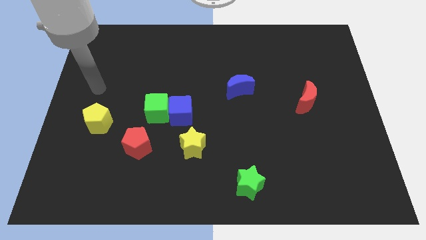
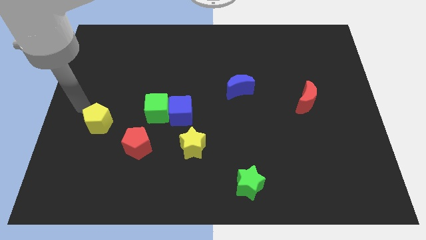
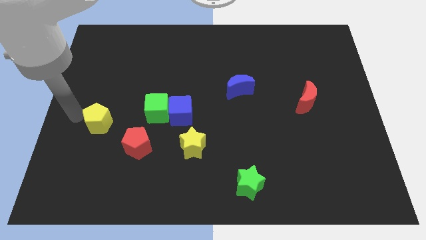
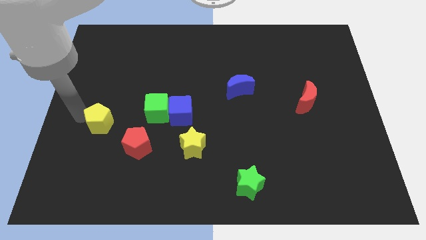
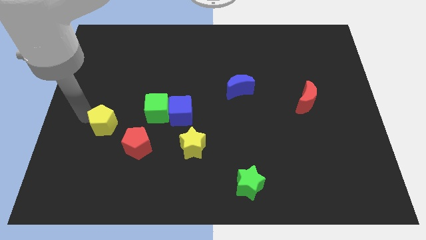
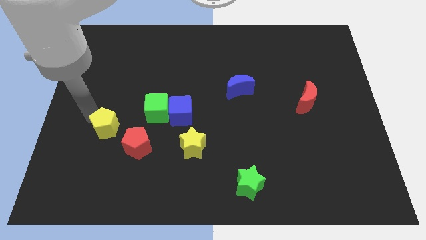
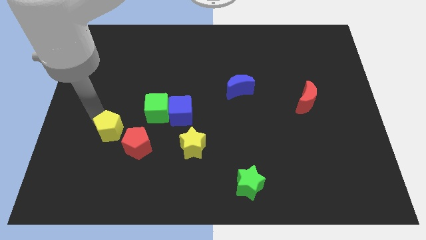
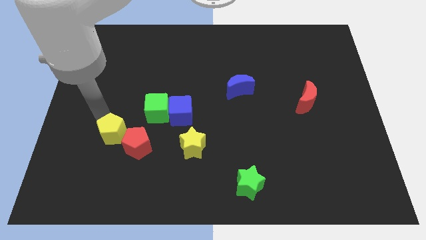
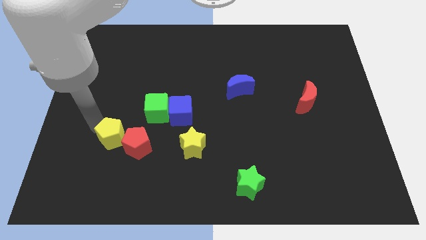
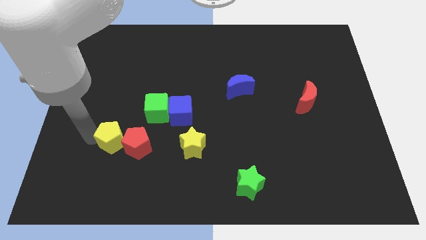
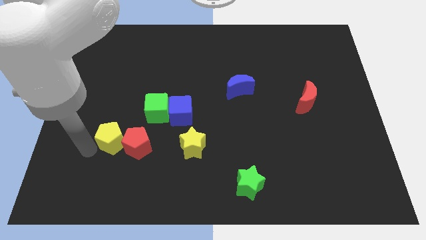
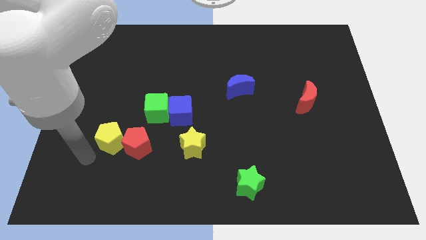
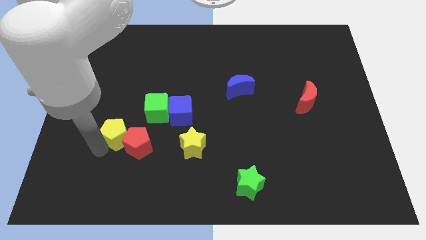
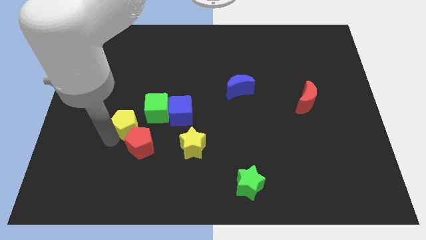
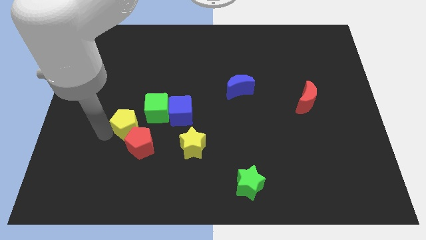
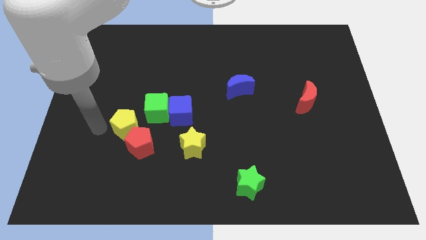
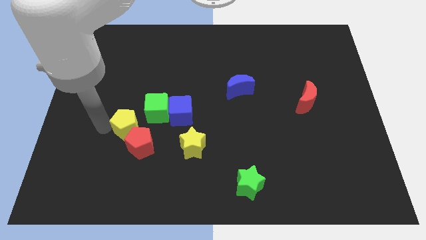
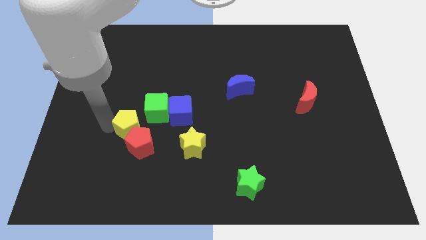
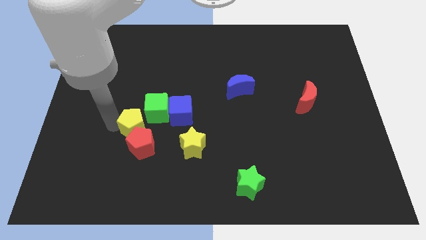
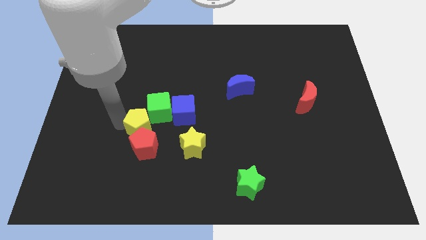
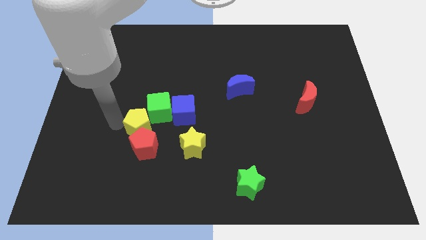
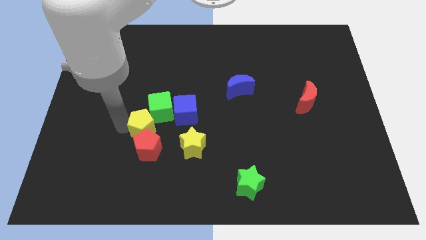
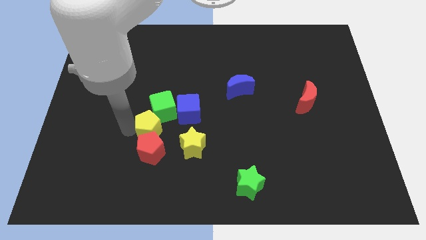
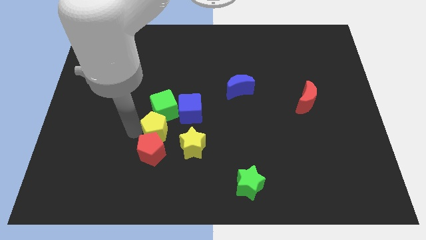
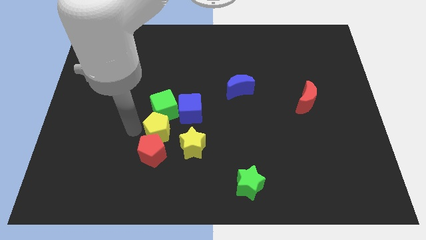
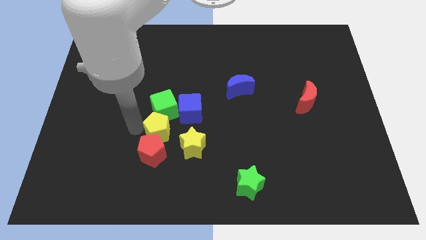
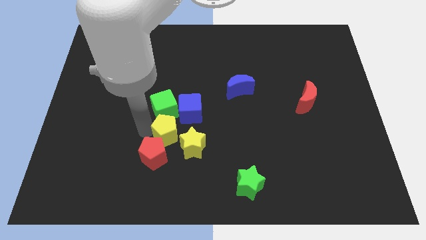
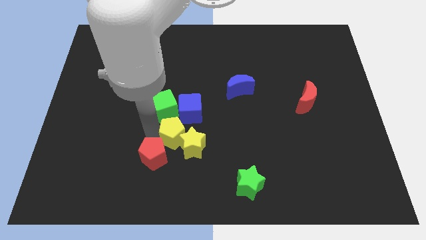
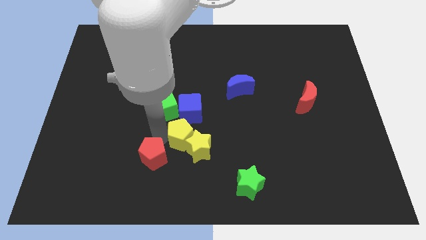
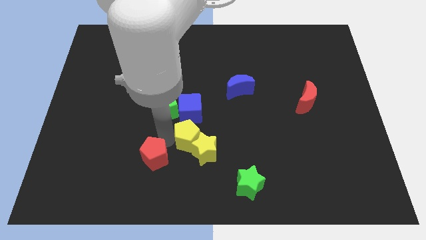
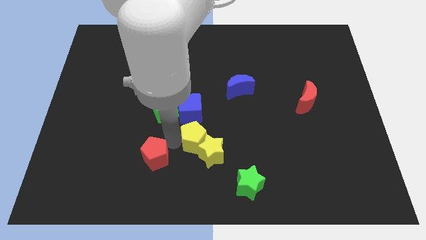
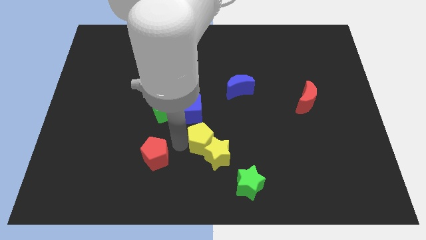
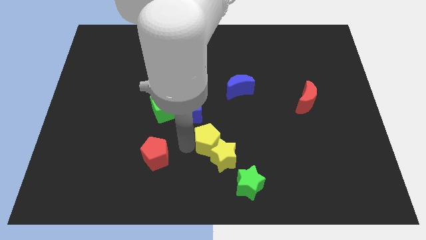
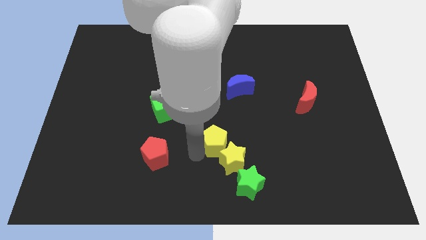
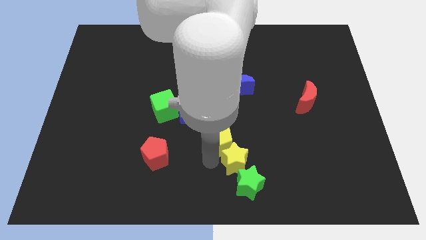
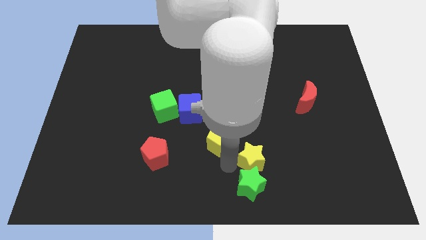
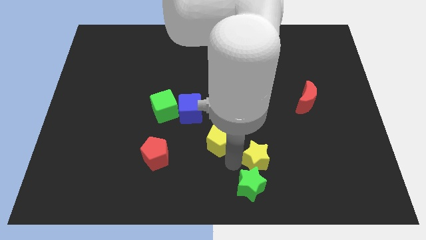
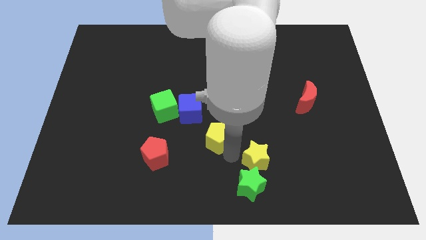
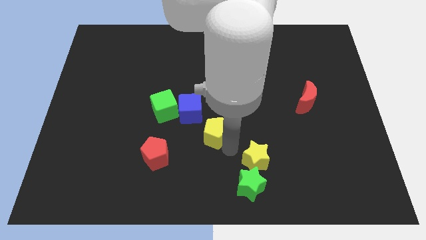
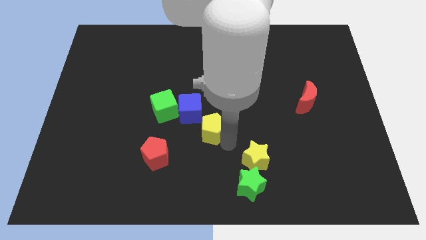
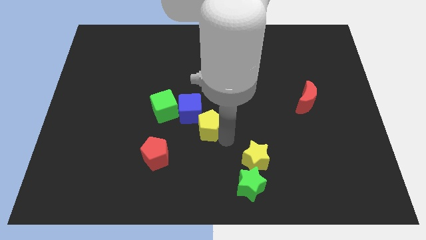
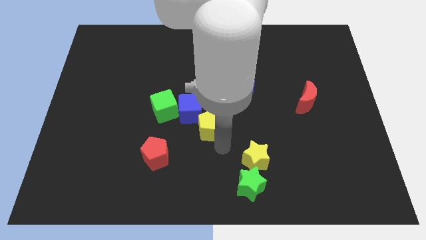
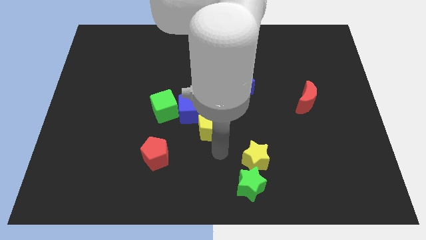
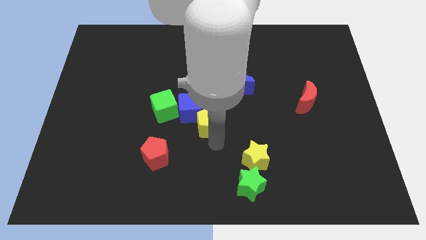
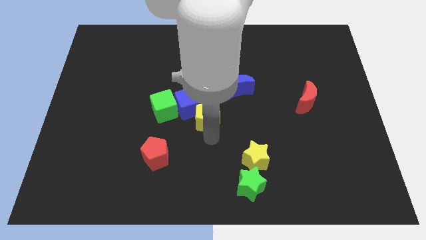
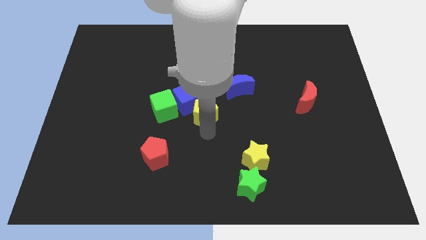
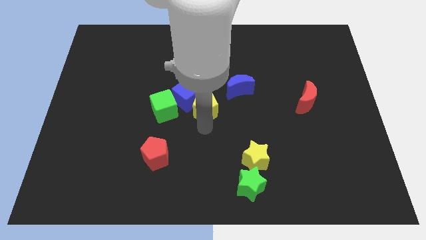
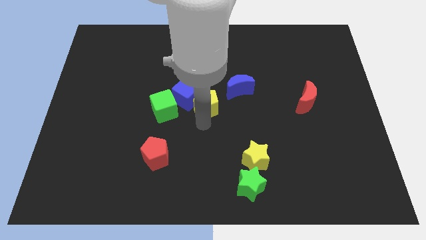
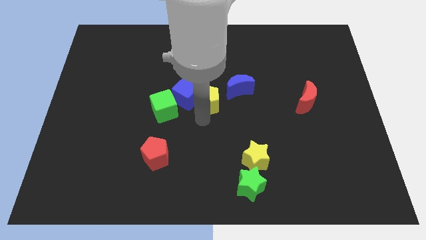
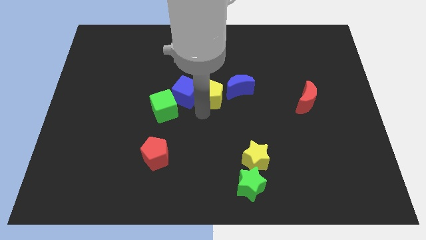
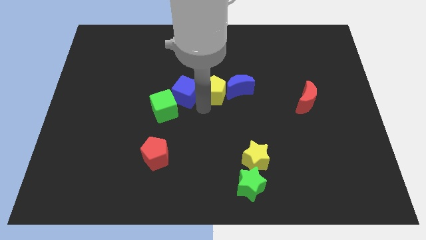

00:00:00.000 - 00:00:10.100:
push the yellow pentagon next to the blue moon
